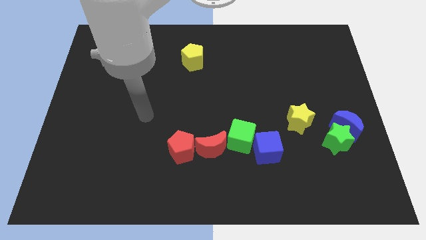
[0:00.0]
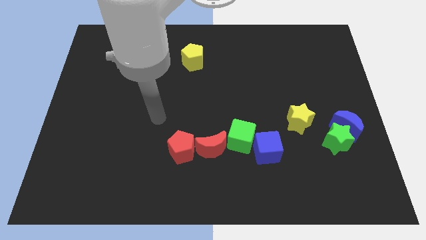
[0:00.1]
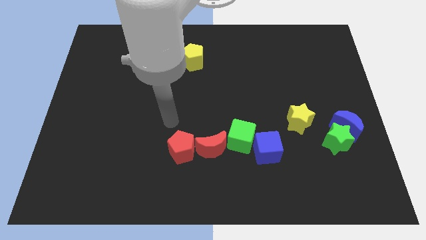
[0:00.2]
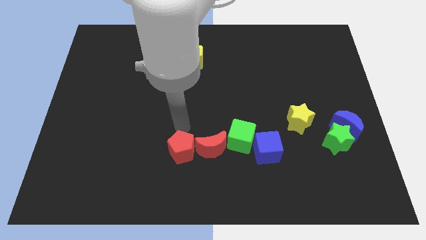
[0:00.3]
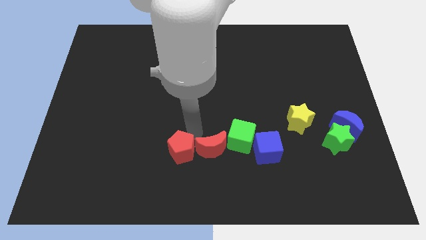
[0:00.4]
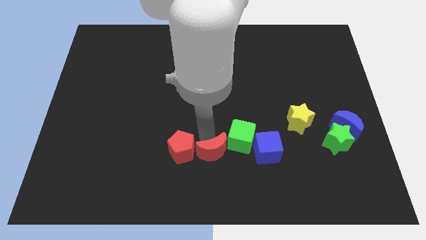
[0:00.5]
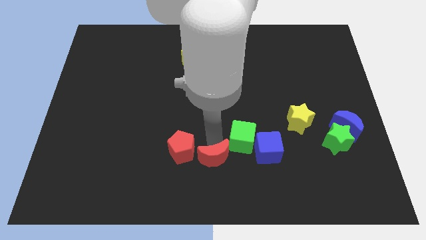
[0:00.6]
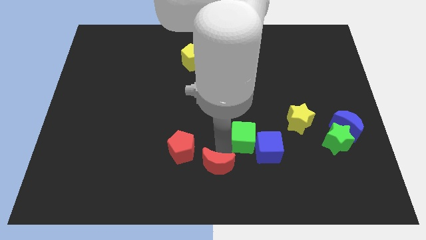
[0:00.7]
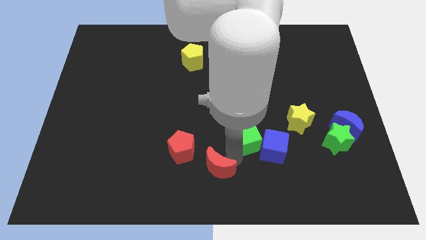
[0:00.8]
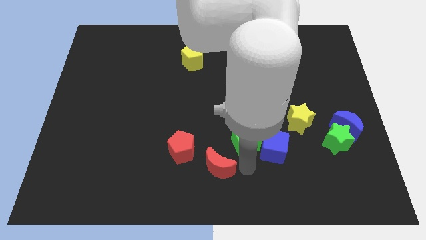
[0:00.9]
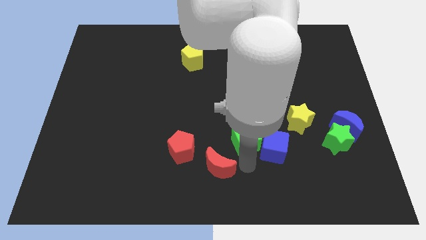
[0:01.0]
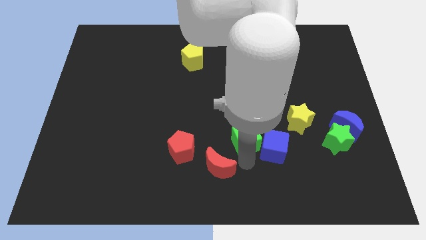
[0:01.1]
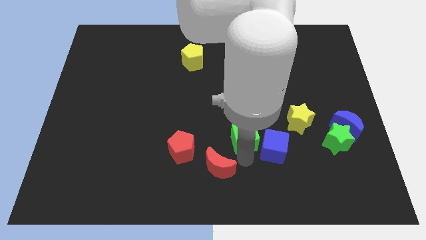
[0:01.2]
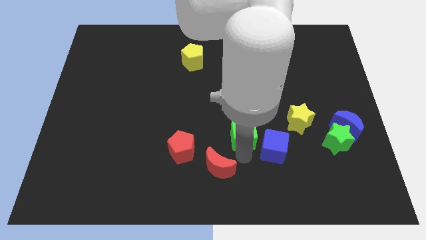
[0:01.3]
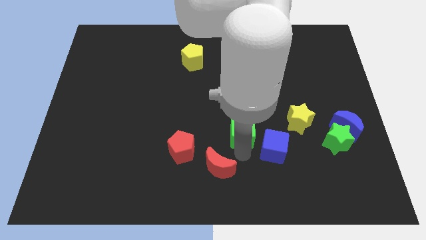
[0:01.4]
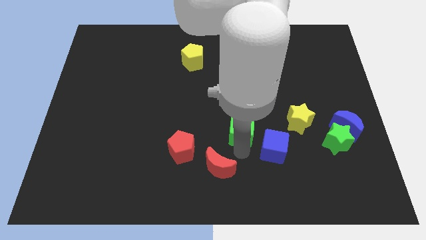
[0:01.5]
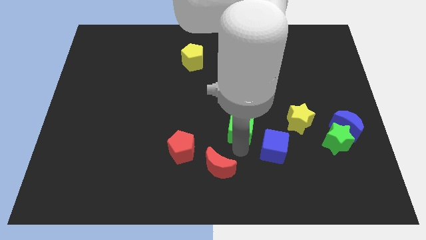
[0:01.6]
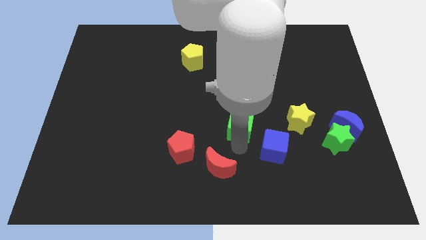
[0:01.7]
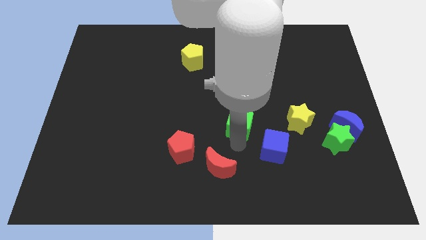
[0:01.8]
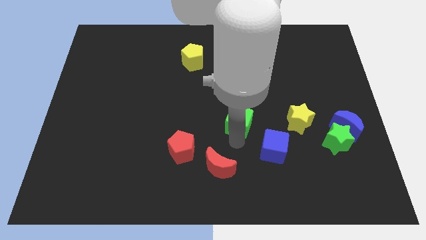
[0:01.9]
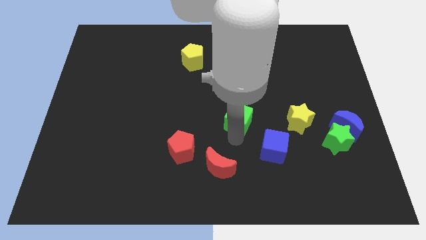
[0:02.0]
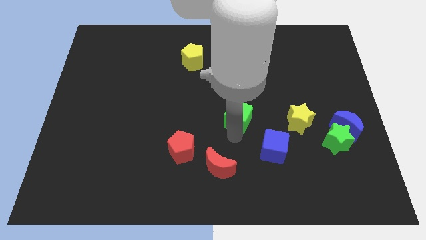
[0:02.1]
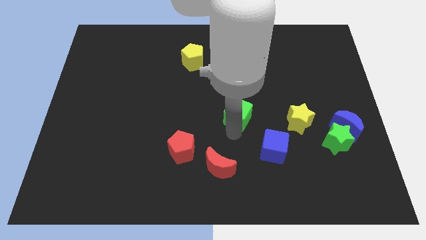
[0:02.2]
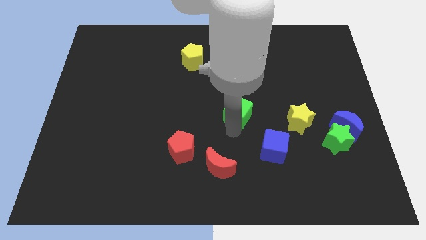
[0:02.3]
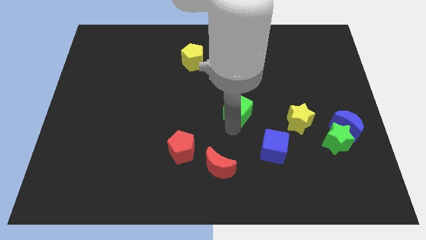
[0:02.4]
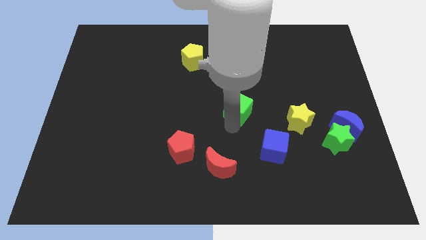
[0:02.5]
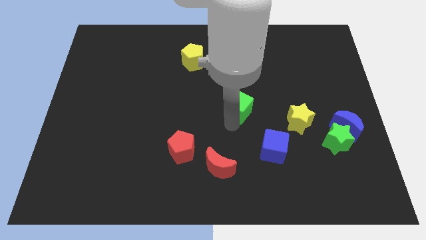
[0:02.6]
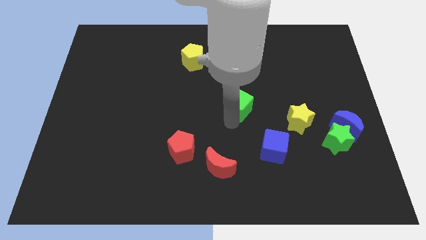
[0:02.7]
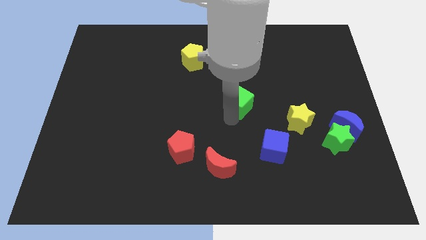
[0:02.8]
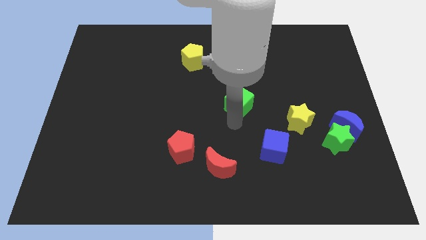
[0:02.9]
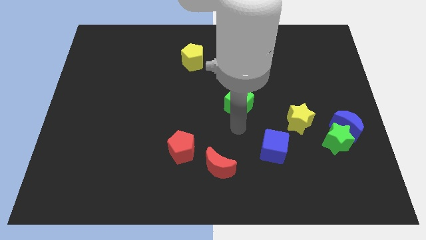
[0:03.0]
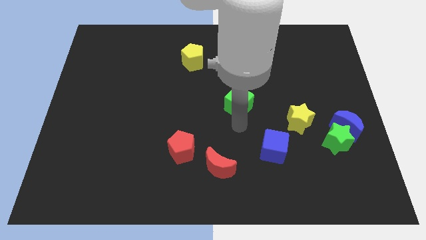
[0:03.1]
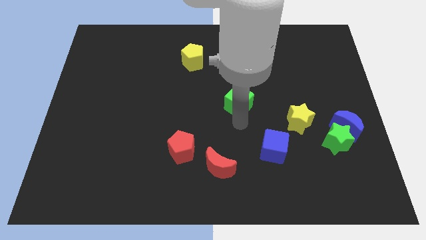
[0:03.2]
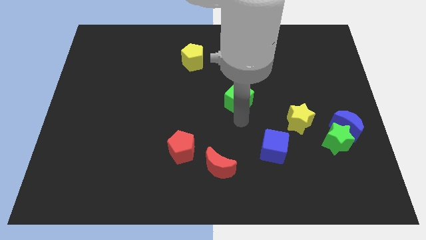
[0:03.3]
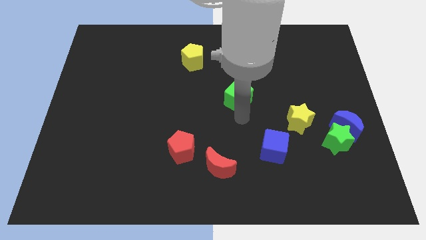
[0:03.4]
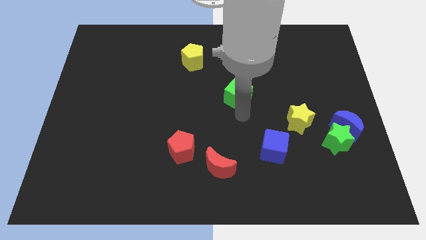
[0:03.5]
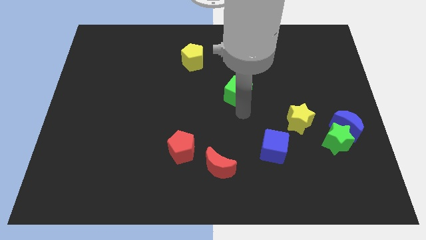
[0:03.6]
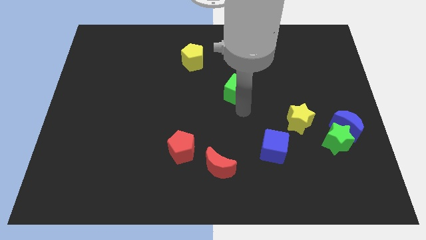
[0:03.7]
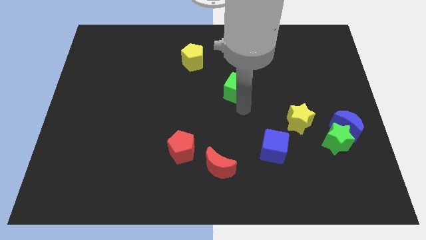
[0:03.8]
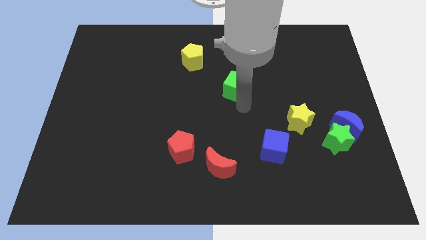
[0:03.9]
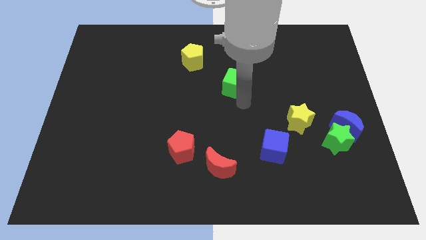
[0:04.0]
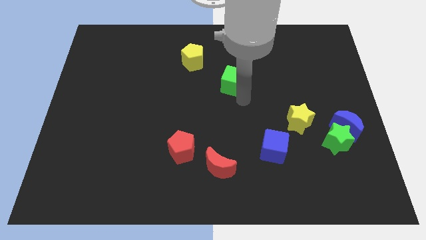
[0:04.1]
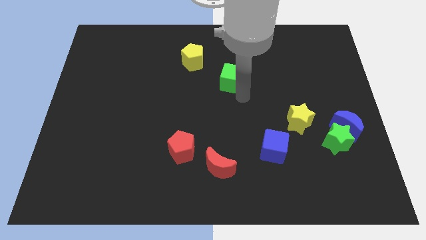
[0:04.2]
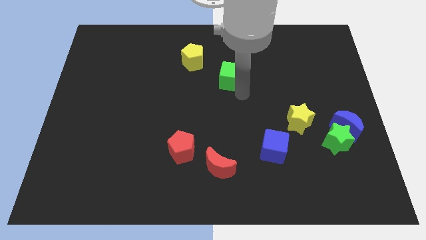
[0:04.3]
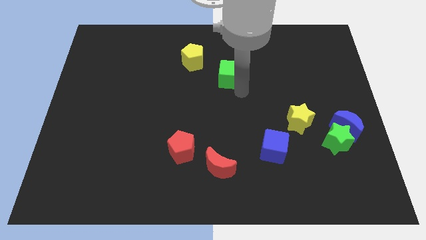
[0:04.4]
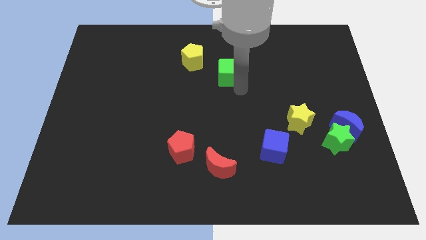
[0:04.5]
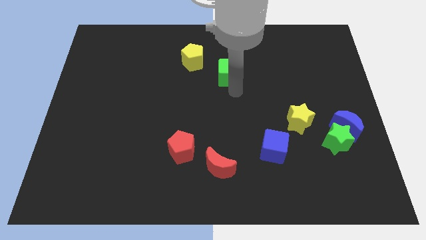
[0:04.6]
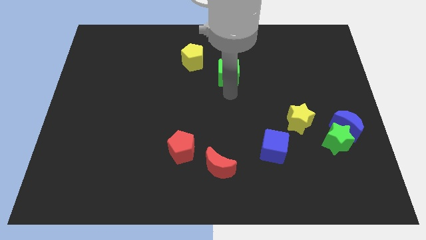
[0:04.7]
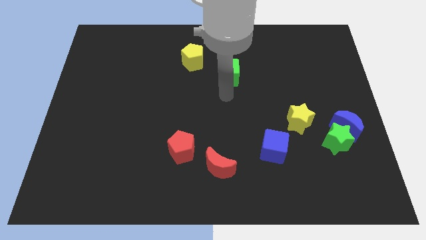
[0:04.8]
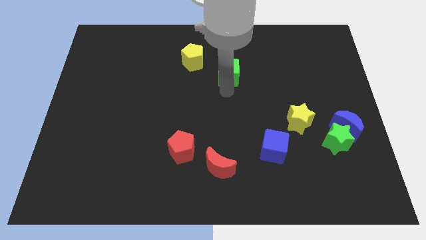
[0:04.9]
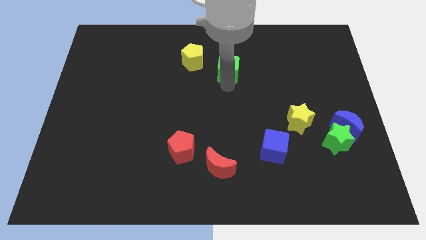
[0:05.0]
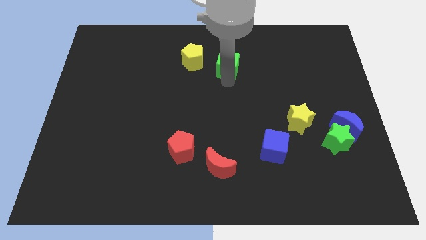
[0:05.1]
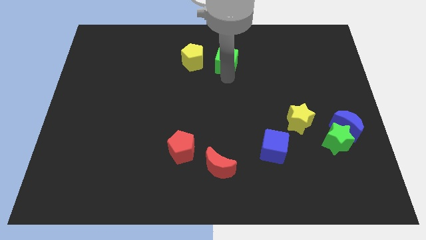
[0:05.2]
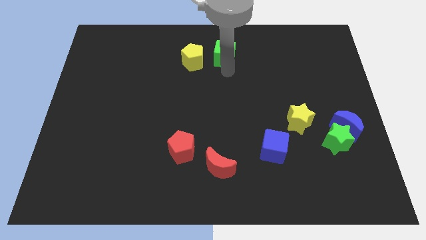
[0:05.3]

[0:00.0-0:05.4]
put the green cube to the top side

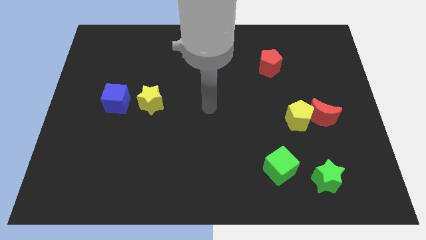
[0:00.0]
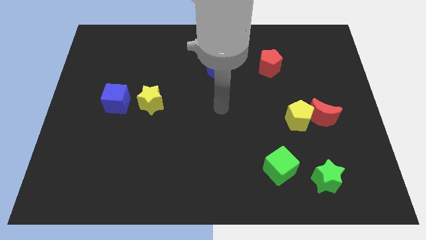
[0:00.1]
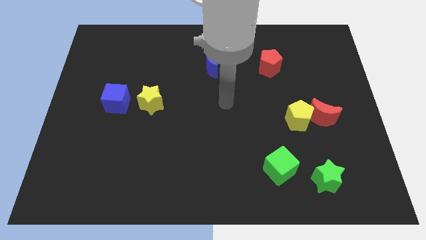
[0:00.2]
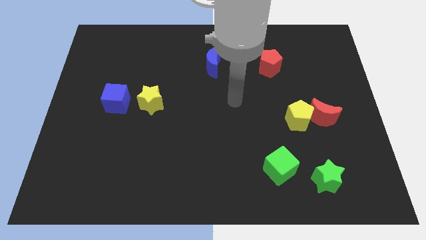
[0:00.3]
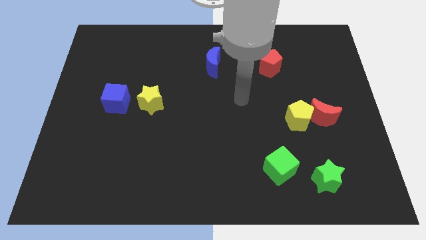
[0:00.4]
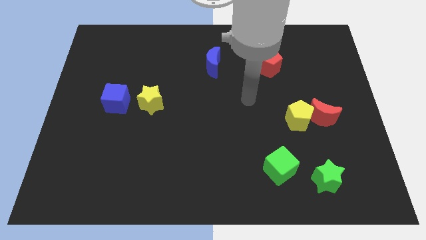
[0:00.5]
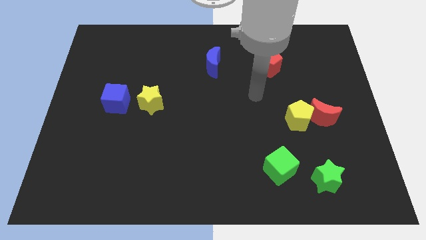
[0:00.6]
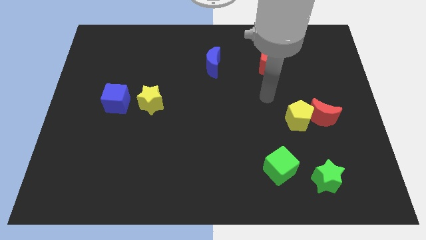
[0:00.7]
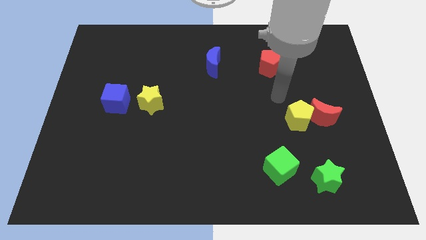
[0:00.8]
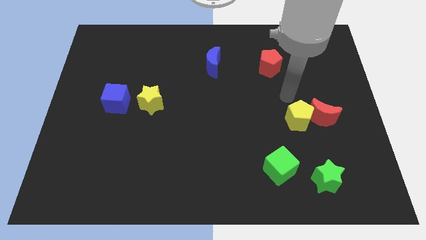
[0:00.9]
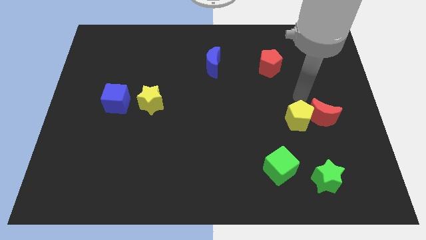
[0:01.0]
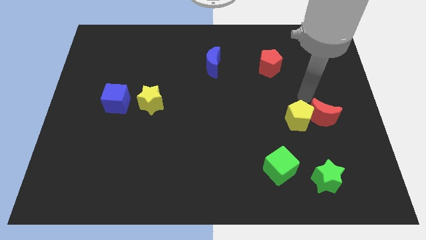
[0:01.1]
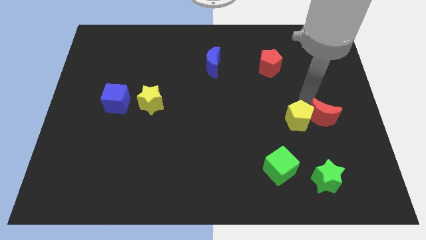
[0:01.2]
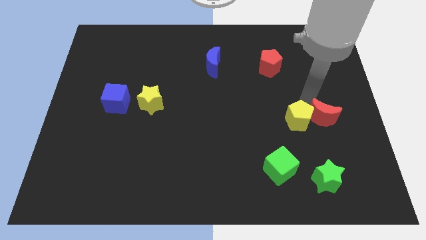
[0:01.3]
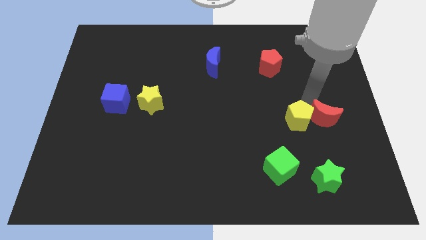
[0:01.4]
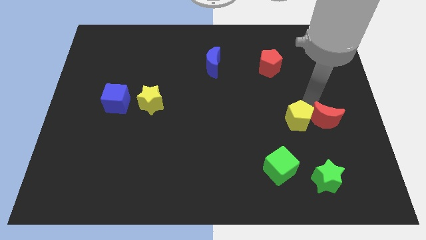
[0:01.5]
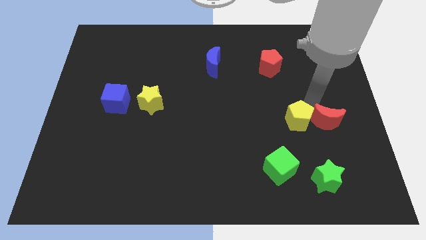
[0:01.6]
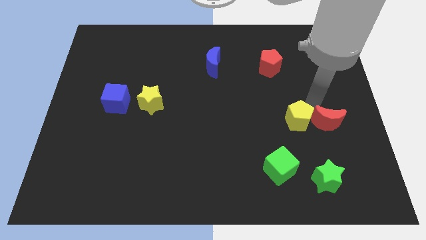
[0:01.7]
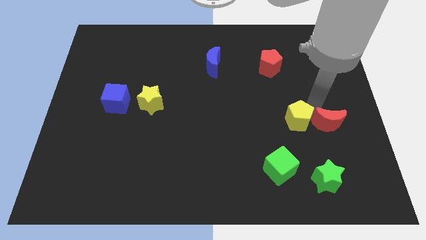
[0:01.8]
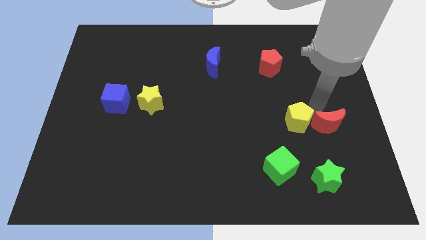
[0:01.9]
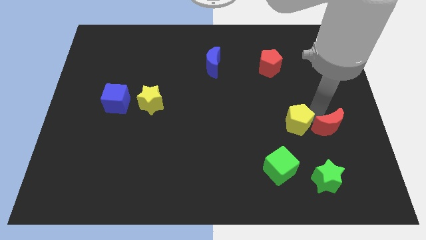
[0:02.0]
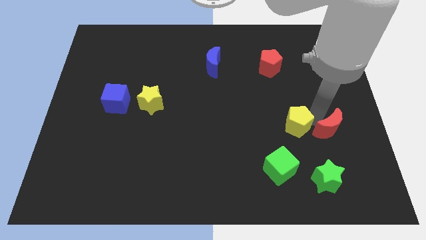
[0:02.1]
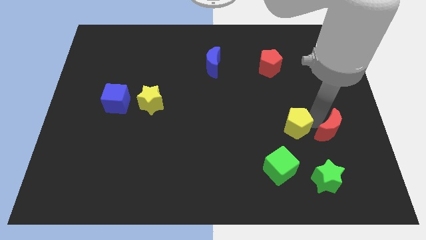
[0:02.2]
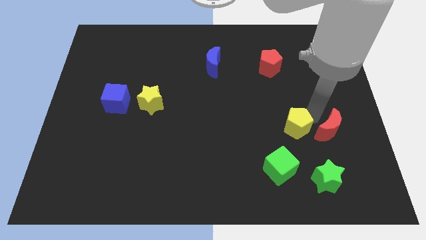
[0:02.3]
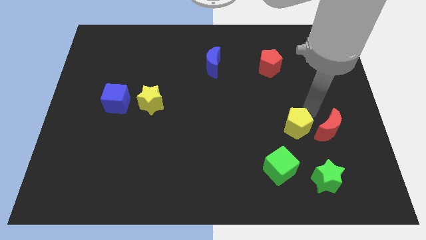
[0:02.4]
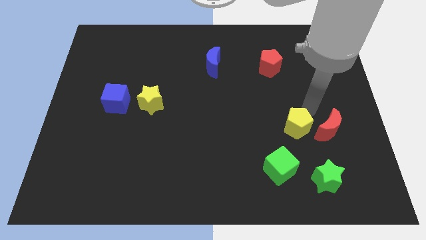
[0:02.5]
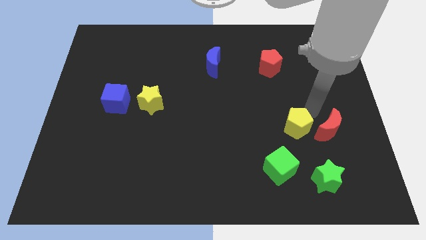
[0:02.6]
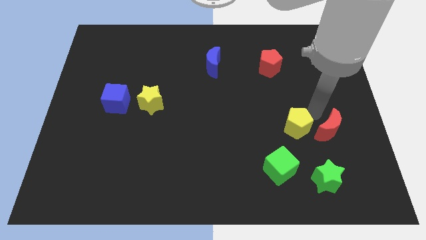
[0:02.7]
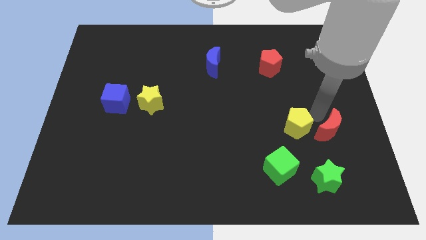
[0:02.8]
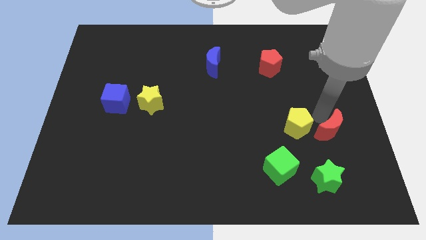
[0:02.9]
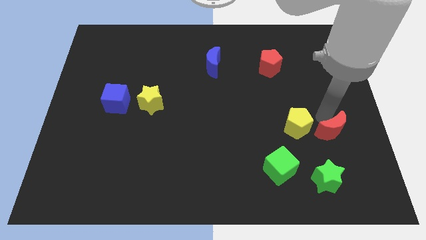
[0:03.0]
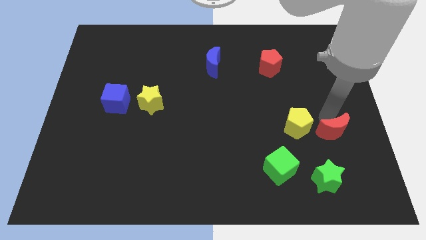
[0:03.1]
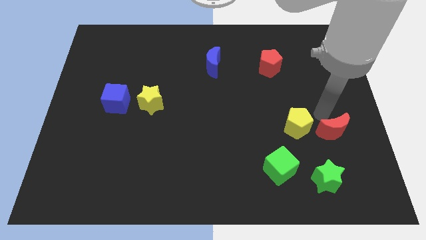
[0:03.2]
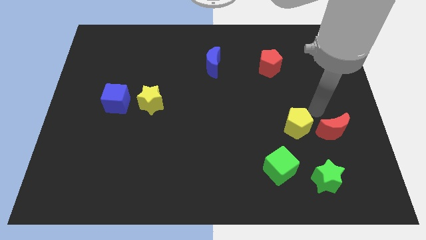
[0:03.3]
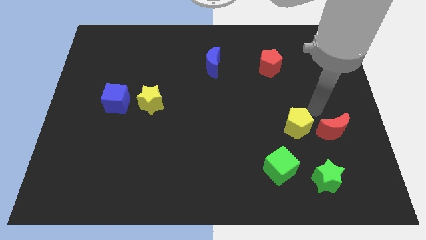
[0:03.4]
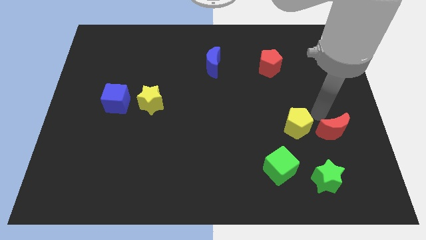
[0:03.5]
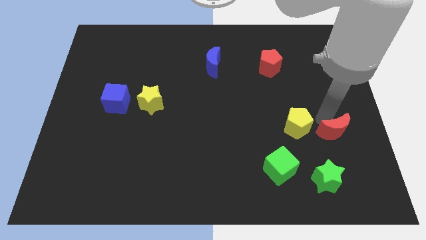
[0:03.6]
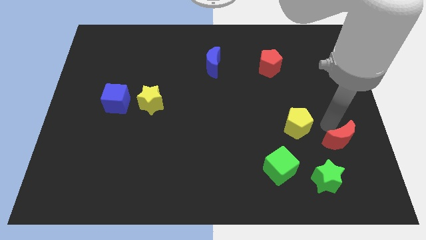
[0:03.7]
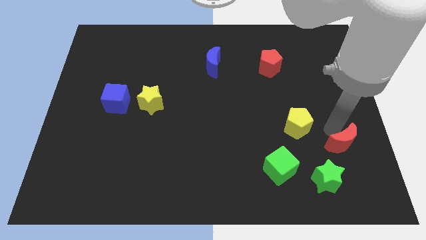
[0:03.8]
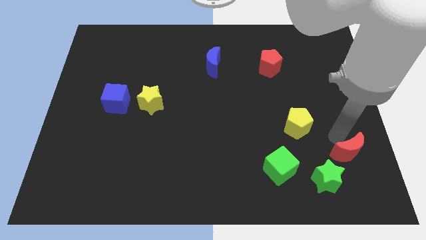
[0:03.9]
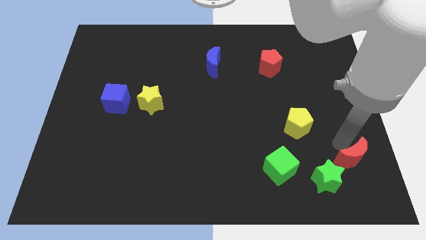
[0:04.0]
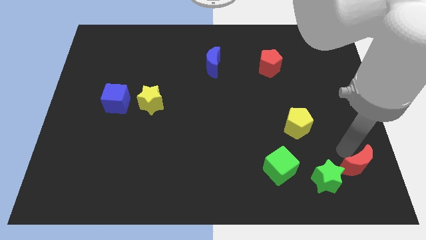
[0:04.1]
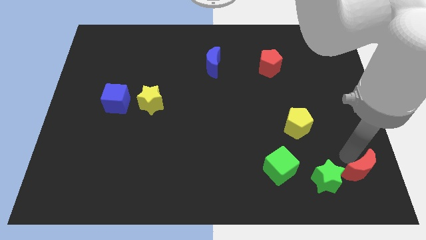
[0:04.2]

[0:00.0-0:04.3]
move the red moon to the bottom right
